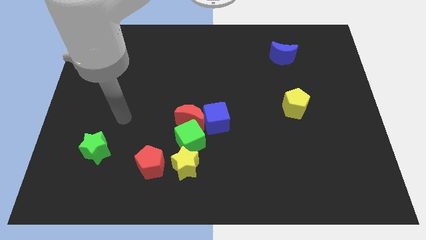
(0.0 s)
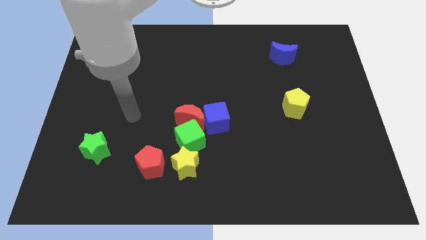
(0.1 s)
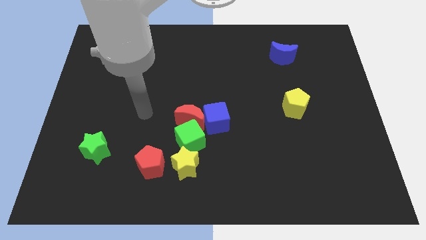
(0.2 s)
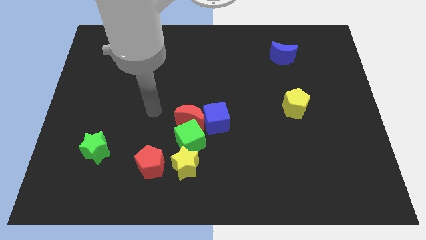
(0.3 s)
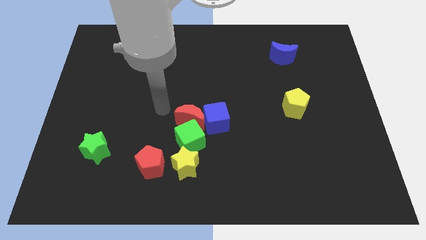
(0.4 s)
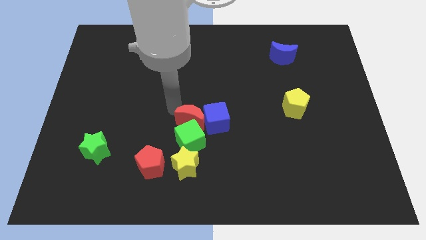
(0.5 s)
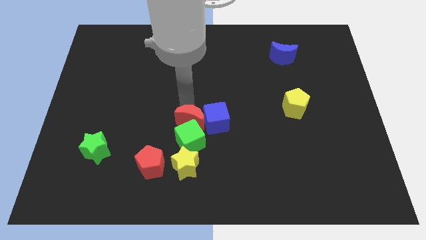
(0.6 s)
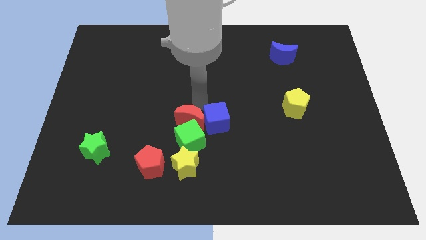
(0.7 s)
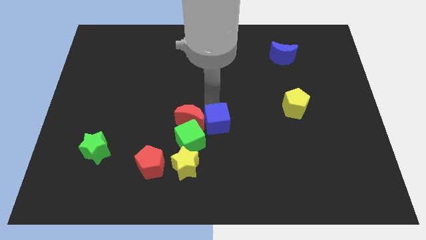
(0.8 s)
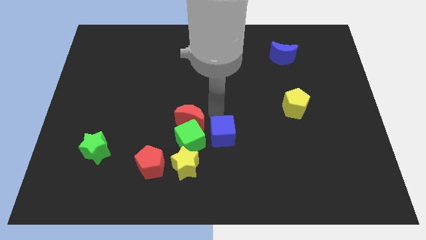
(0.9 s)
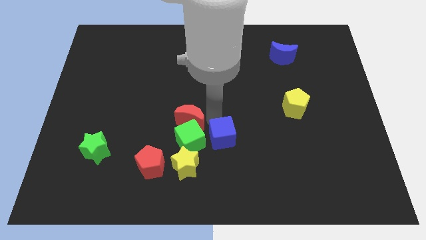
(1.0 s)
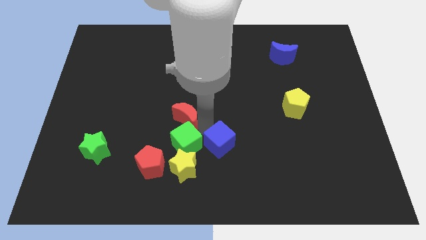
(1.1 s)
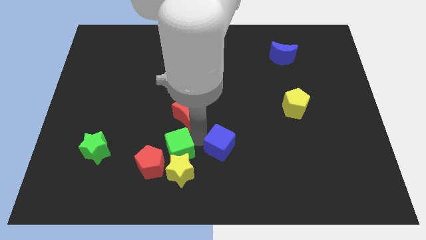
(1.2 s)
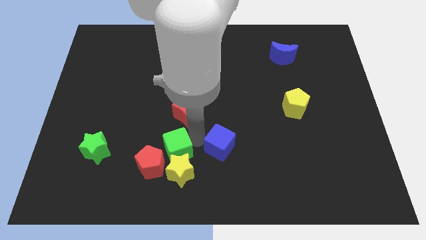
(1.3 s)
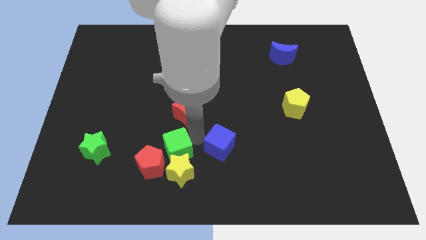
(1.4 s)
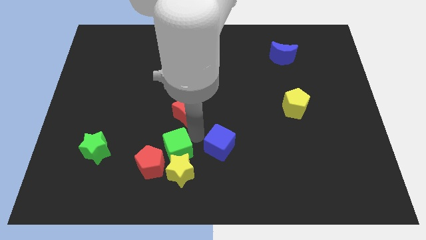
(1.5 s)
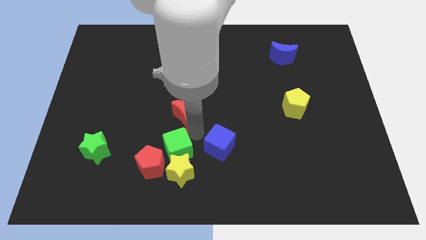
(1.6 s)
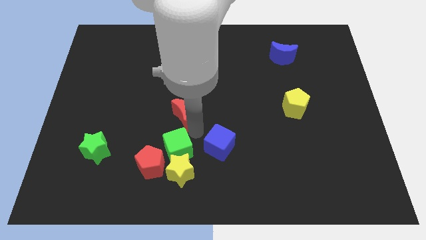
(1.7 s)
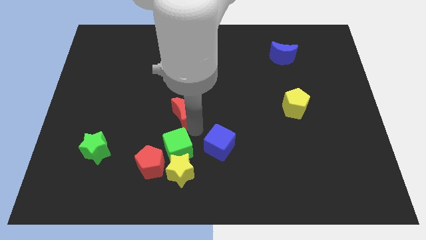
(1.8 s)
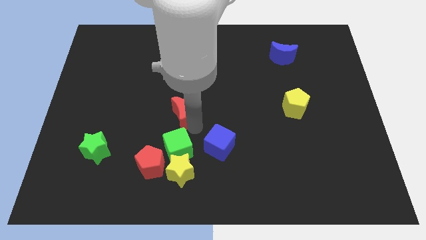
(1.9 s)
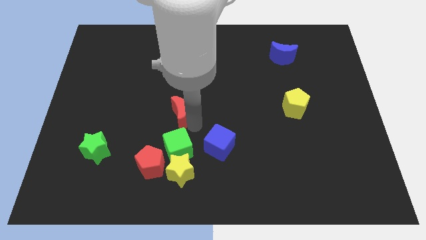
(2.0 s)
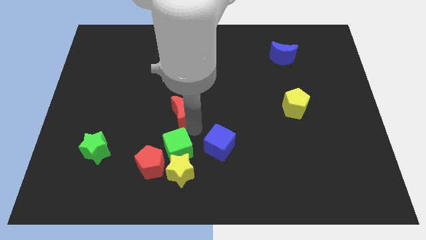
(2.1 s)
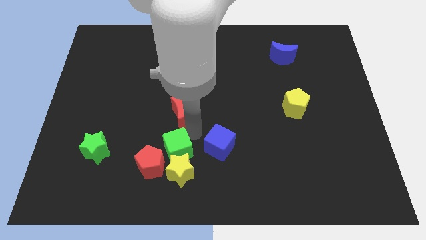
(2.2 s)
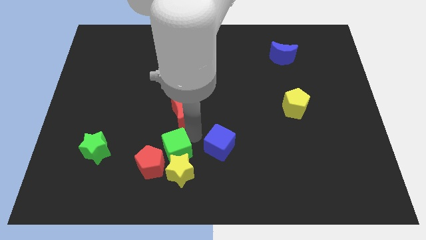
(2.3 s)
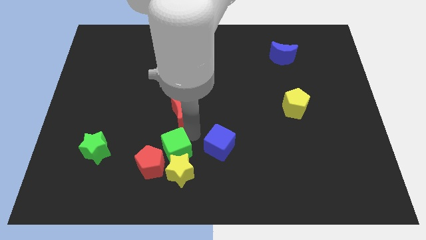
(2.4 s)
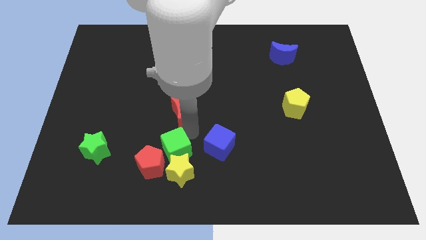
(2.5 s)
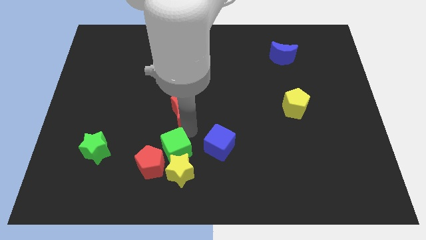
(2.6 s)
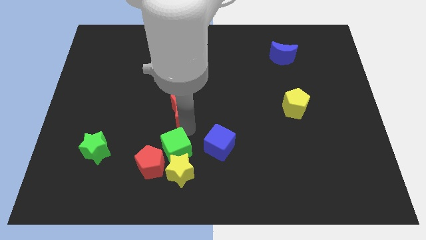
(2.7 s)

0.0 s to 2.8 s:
separate the red moon from the green cube and blue cube

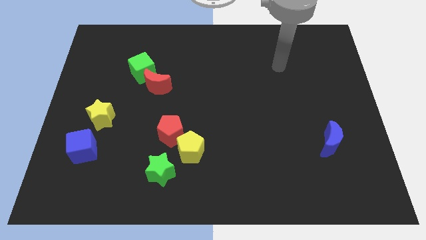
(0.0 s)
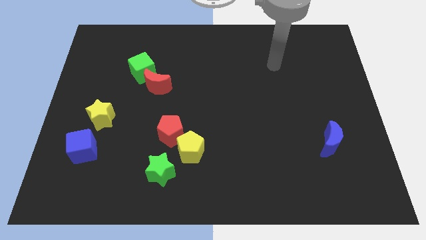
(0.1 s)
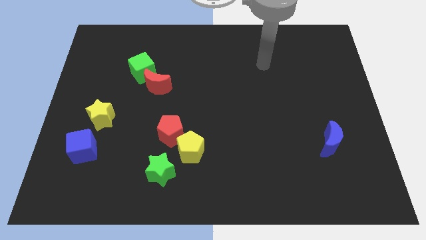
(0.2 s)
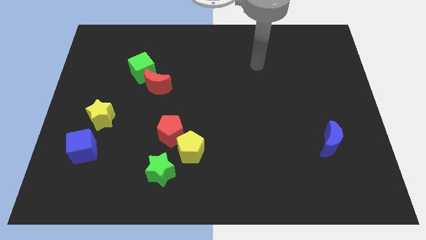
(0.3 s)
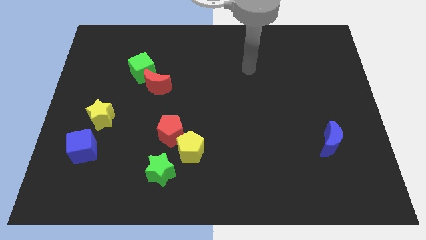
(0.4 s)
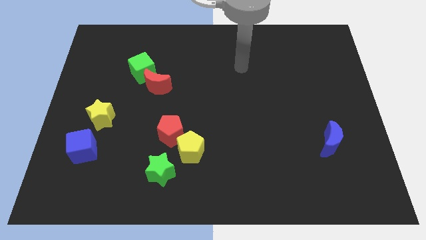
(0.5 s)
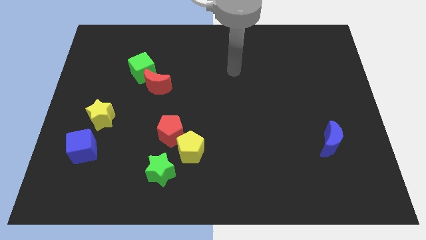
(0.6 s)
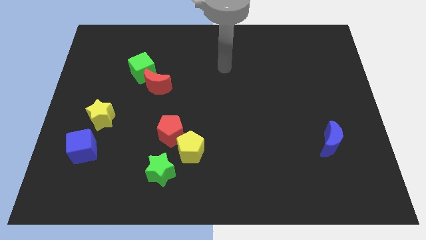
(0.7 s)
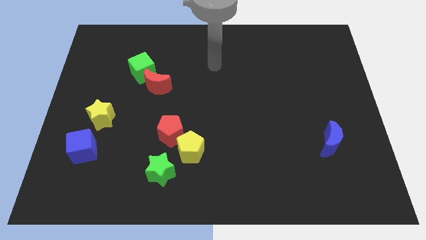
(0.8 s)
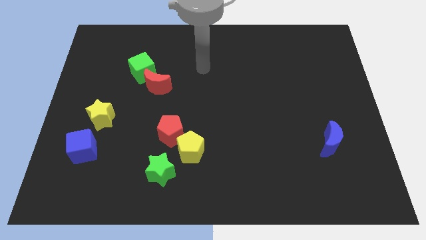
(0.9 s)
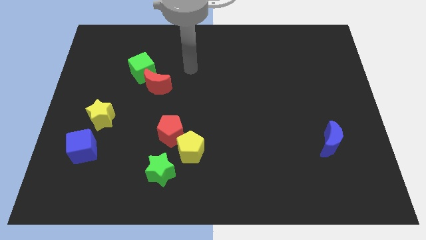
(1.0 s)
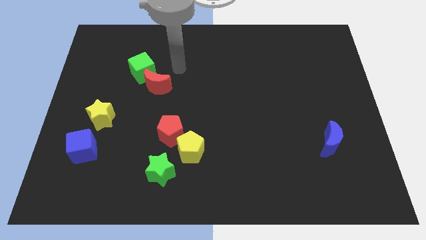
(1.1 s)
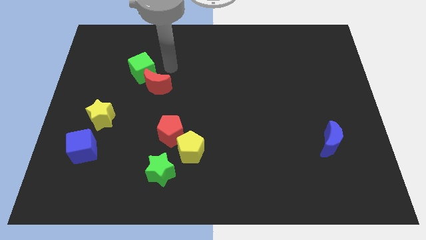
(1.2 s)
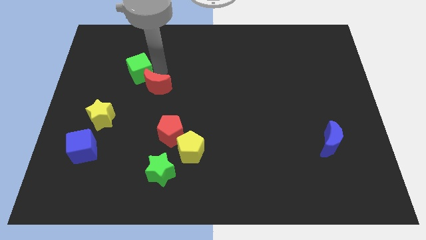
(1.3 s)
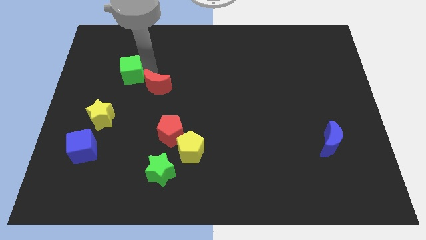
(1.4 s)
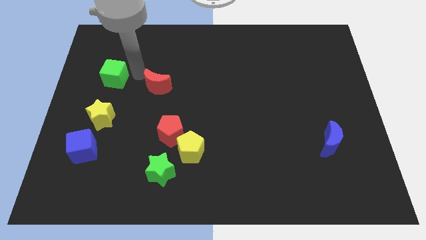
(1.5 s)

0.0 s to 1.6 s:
move the red moon away from the green cube

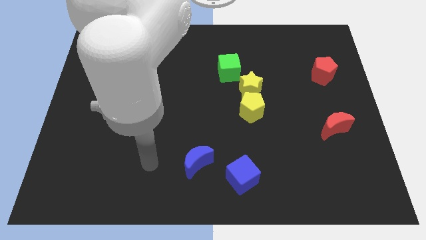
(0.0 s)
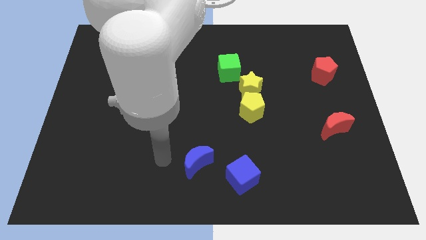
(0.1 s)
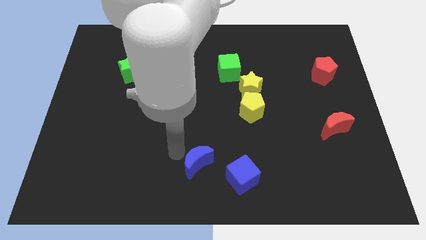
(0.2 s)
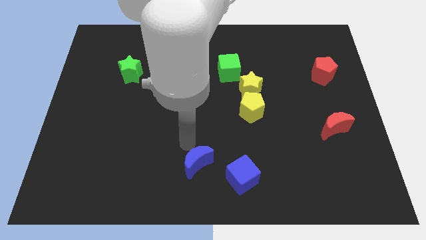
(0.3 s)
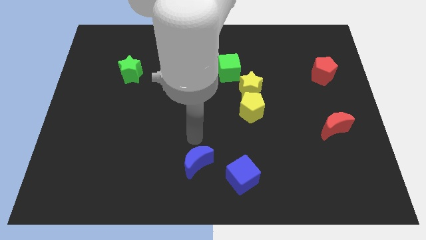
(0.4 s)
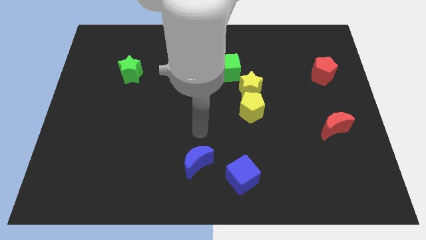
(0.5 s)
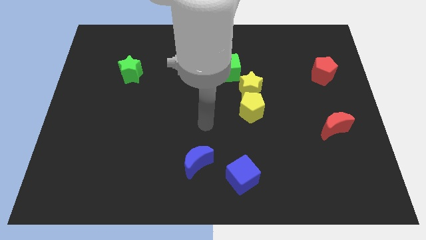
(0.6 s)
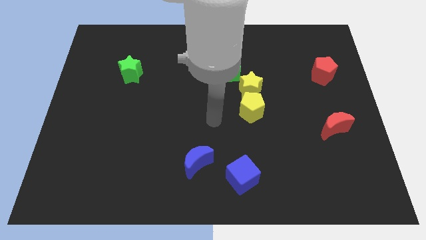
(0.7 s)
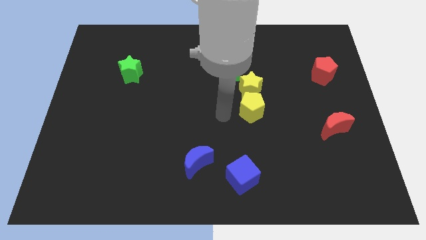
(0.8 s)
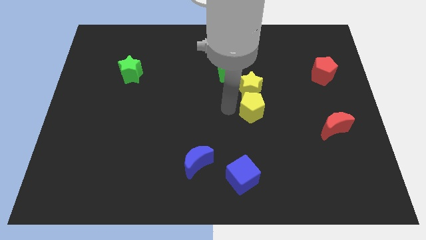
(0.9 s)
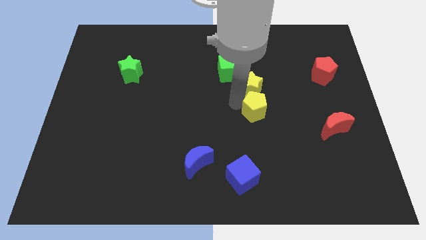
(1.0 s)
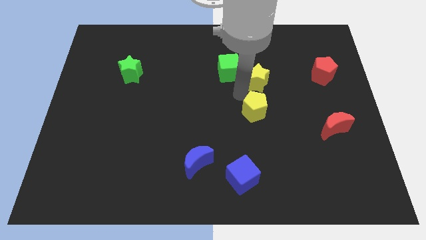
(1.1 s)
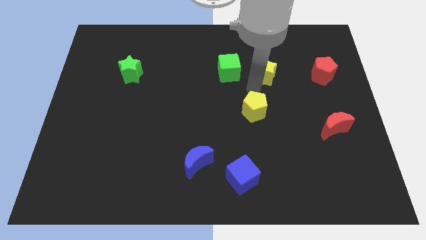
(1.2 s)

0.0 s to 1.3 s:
separate the yellow pentagon from the yellow star

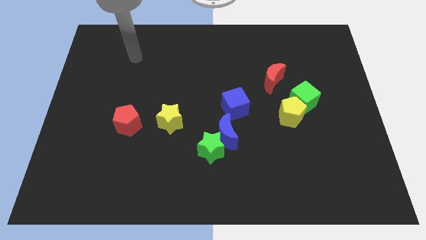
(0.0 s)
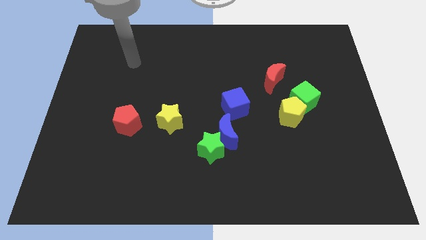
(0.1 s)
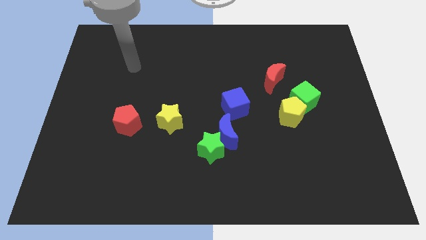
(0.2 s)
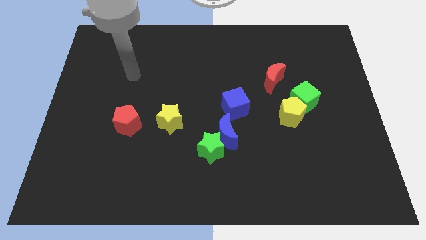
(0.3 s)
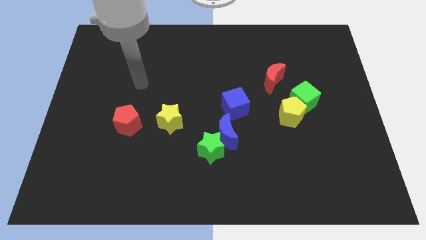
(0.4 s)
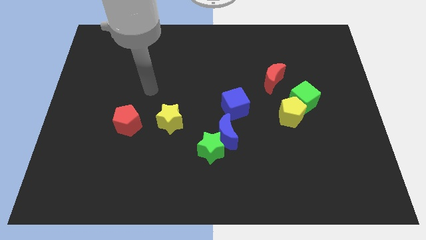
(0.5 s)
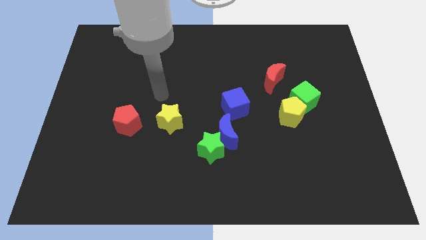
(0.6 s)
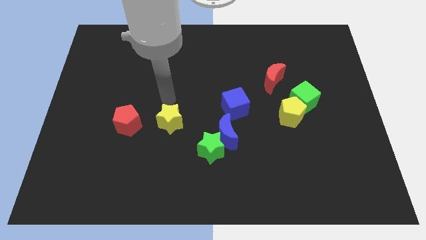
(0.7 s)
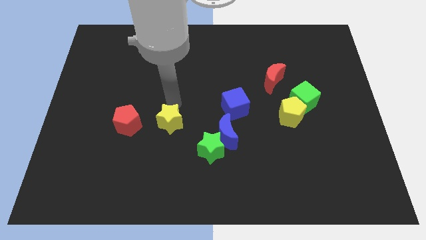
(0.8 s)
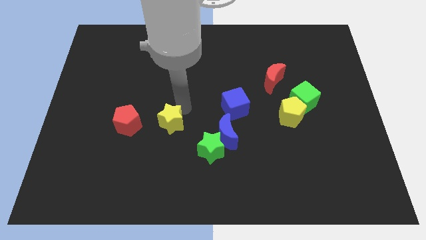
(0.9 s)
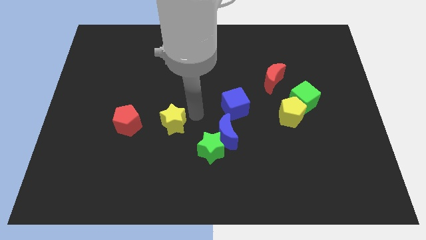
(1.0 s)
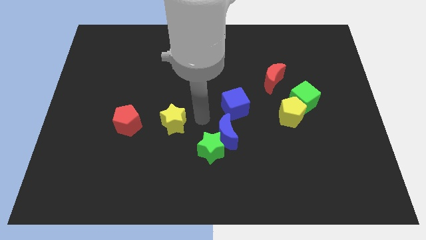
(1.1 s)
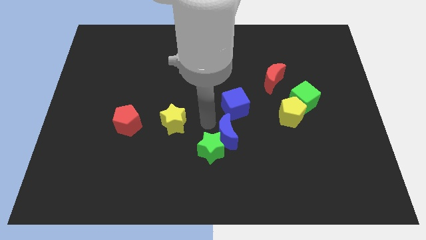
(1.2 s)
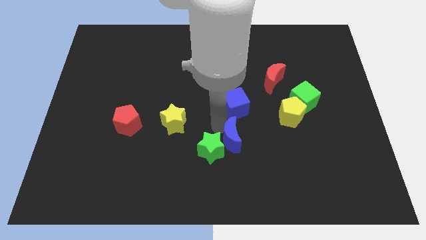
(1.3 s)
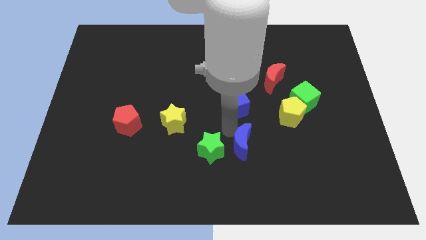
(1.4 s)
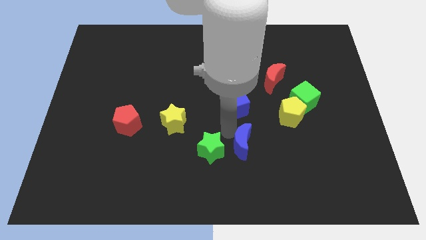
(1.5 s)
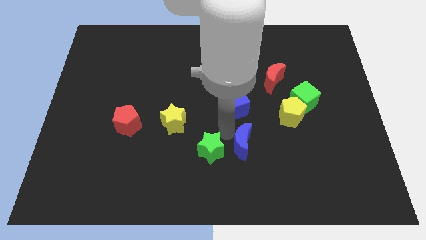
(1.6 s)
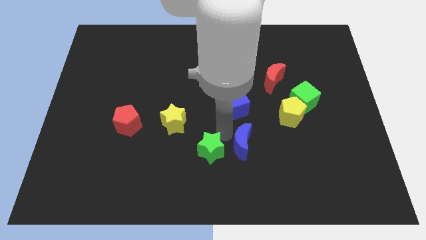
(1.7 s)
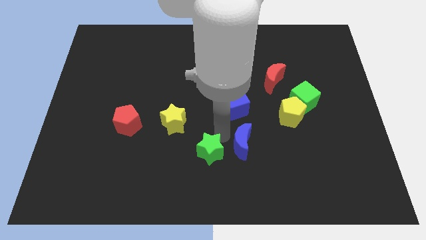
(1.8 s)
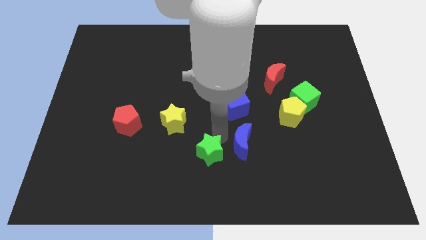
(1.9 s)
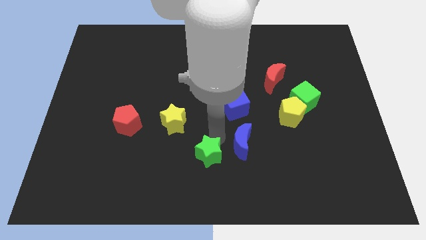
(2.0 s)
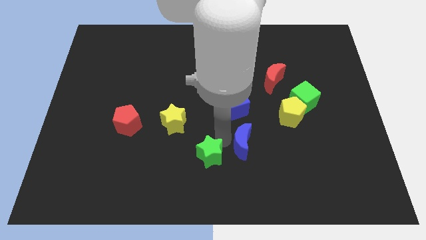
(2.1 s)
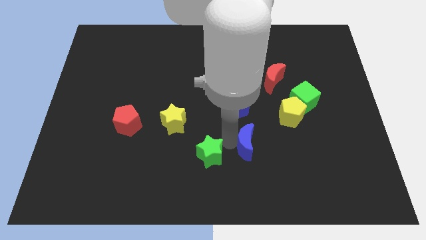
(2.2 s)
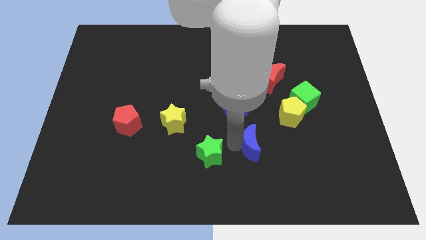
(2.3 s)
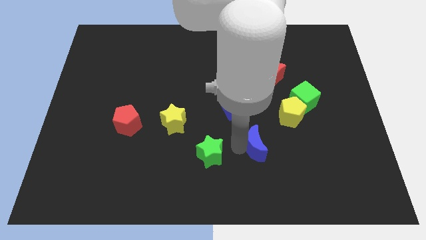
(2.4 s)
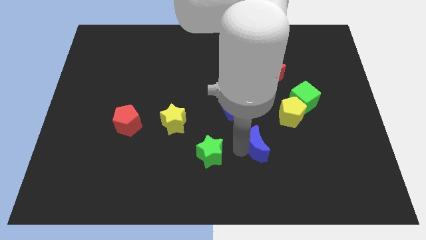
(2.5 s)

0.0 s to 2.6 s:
move the green star away from the blue moon

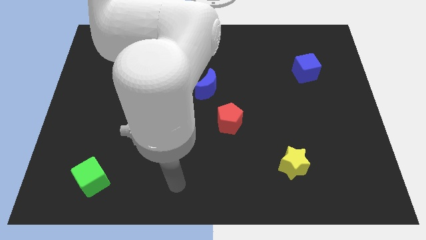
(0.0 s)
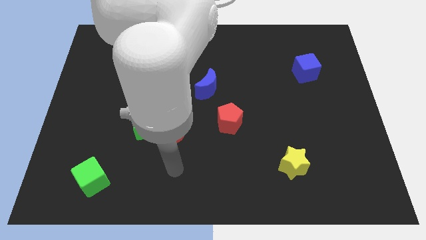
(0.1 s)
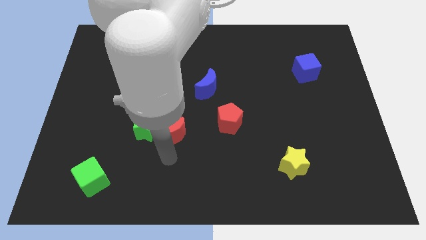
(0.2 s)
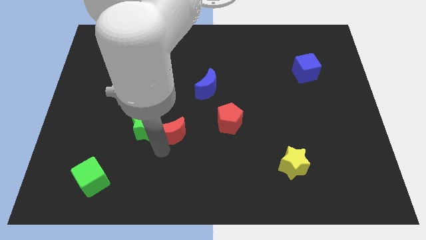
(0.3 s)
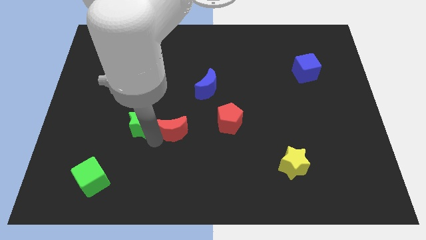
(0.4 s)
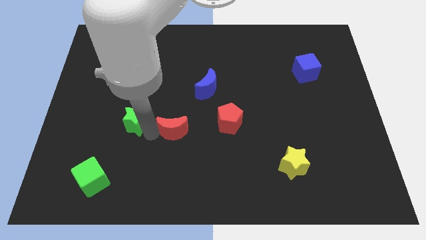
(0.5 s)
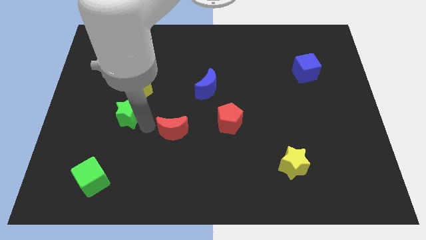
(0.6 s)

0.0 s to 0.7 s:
move the red moon away from the green star

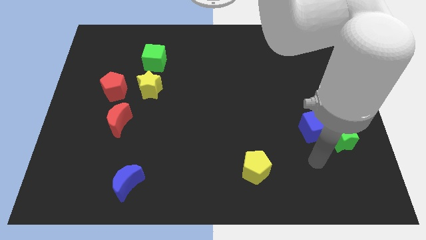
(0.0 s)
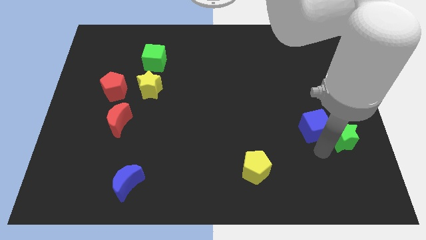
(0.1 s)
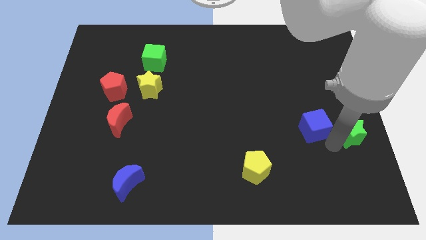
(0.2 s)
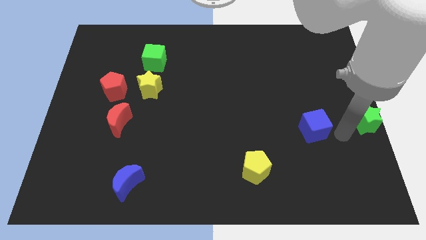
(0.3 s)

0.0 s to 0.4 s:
move the blue cube away from the green star

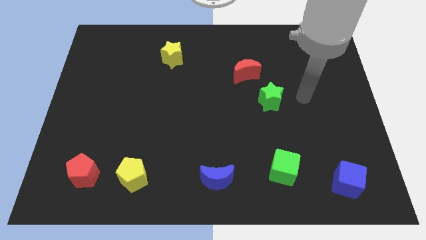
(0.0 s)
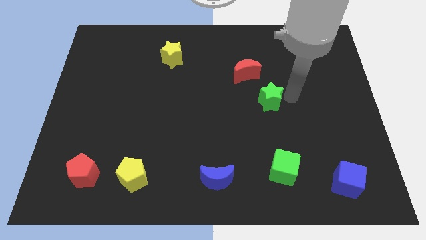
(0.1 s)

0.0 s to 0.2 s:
separate the red moon from the green star
